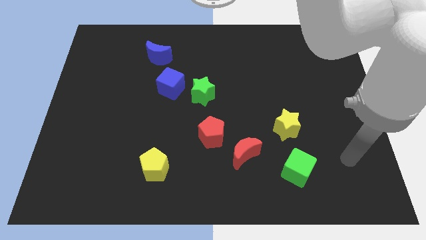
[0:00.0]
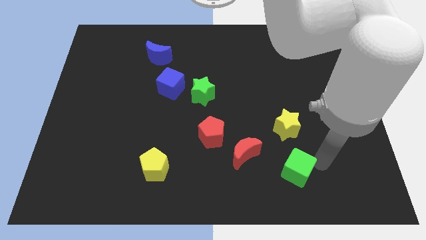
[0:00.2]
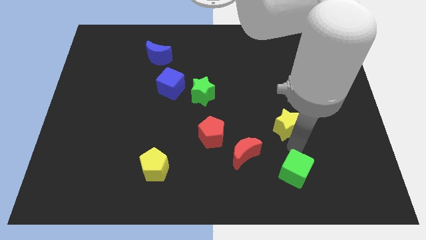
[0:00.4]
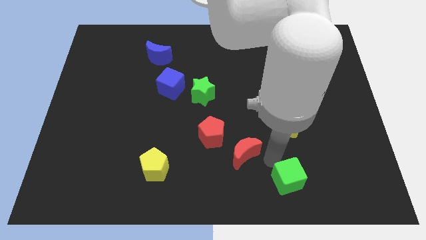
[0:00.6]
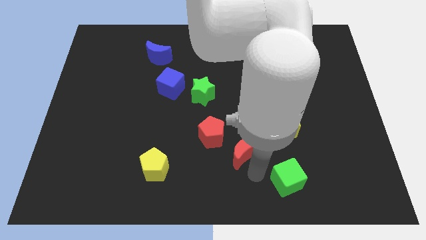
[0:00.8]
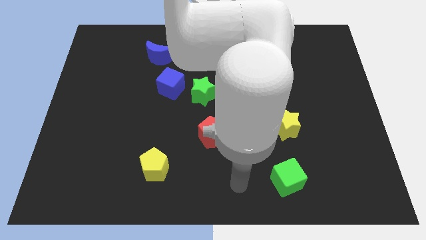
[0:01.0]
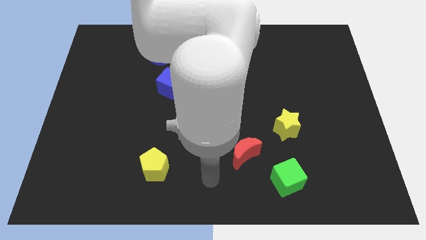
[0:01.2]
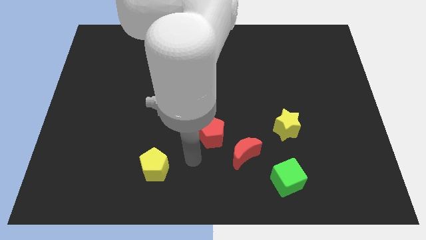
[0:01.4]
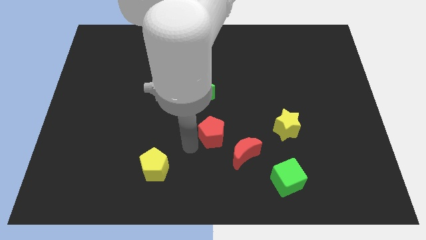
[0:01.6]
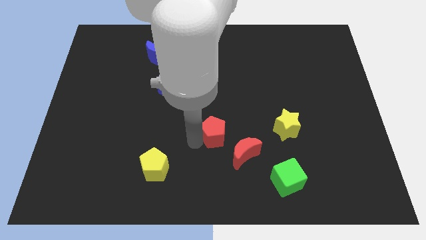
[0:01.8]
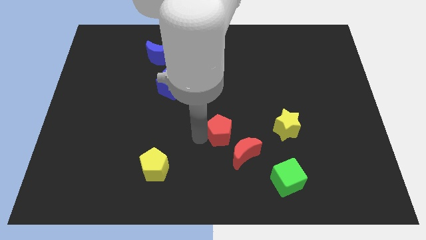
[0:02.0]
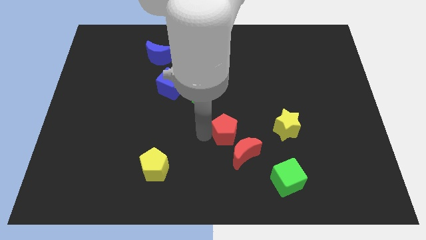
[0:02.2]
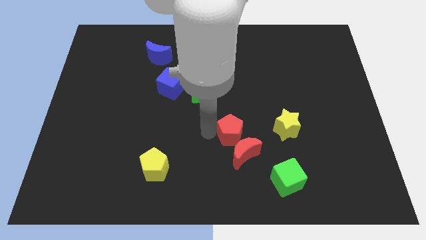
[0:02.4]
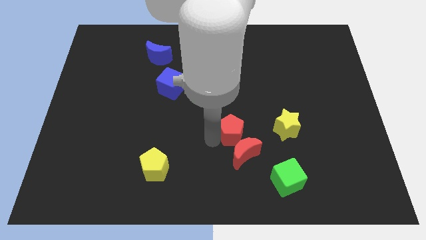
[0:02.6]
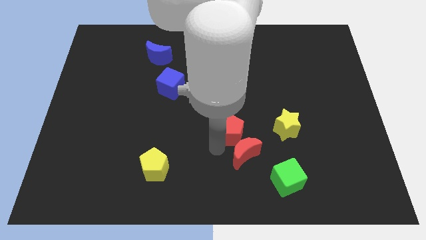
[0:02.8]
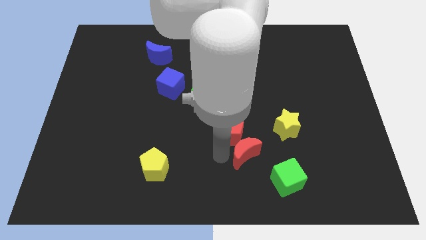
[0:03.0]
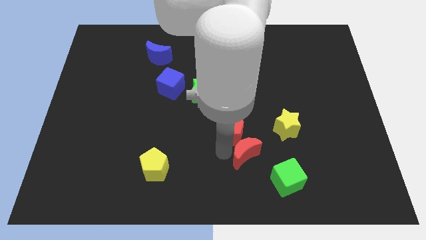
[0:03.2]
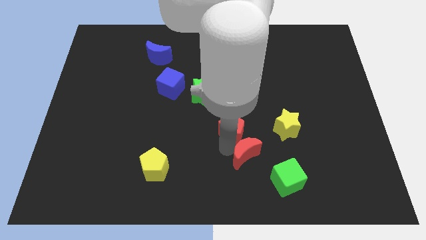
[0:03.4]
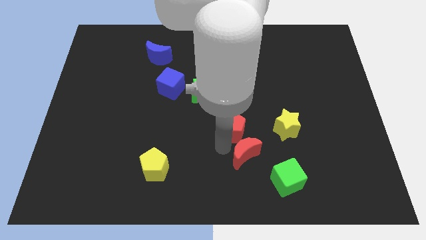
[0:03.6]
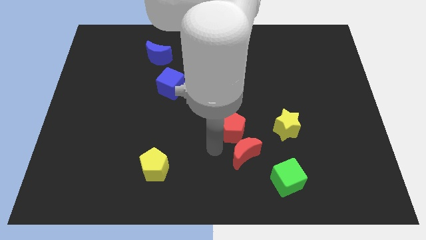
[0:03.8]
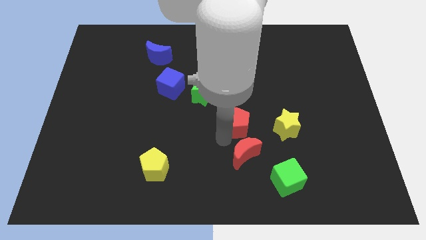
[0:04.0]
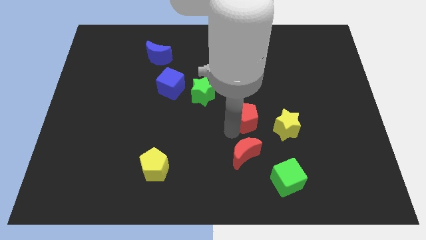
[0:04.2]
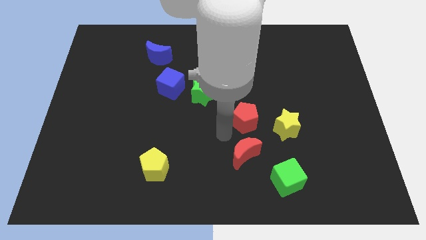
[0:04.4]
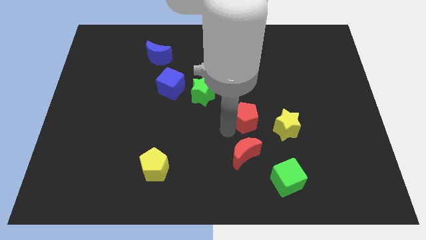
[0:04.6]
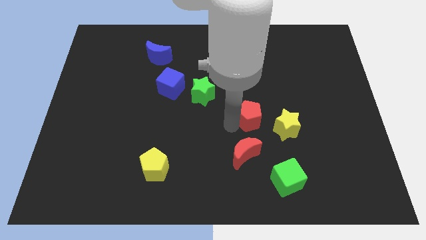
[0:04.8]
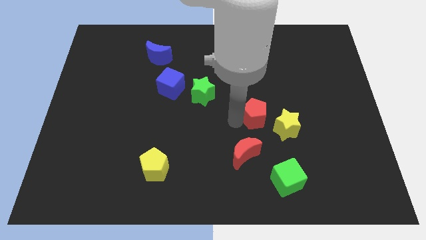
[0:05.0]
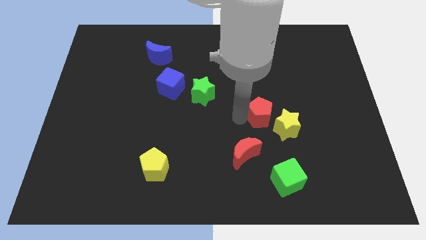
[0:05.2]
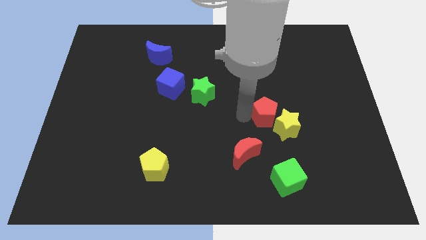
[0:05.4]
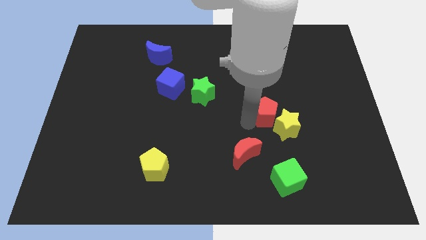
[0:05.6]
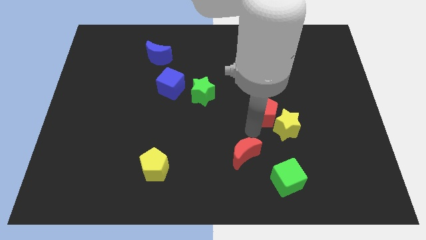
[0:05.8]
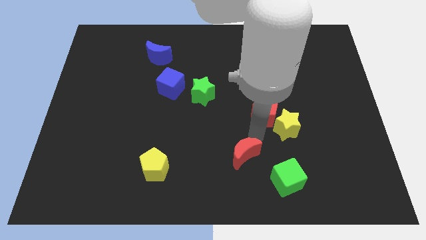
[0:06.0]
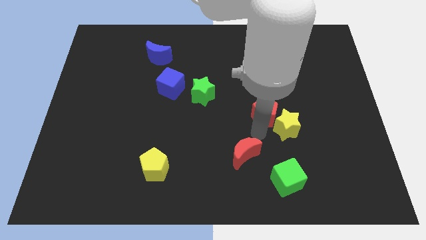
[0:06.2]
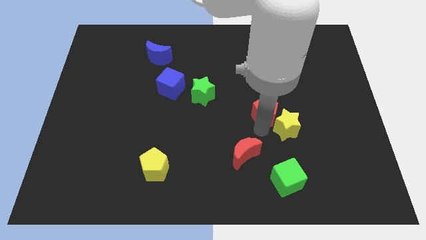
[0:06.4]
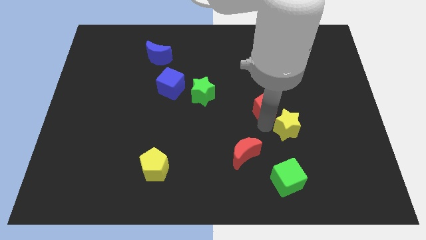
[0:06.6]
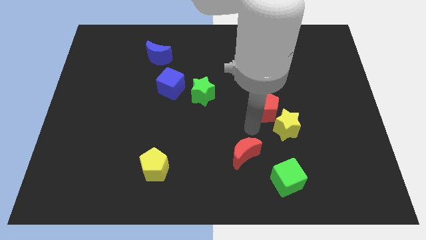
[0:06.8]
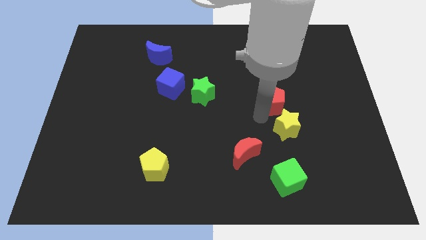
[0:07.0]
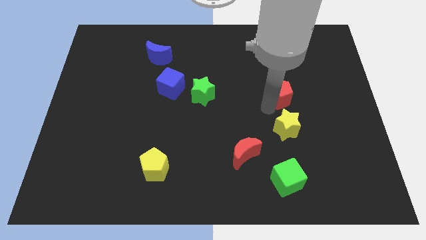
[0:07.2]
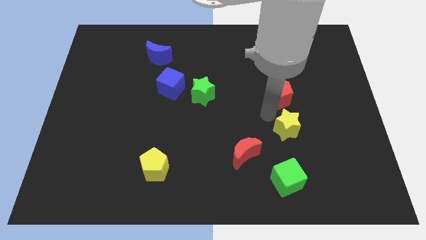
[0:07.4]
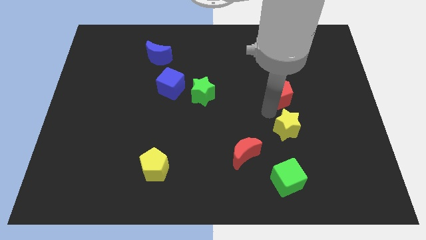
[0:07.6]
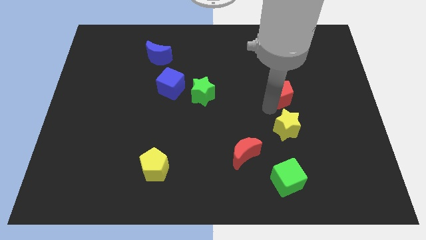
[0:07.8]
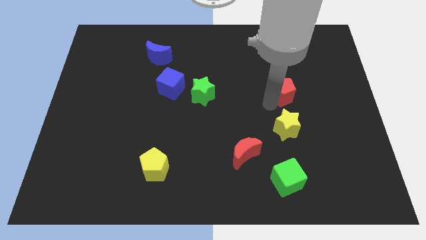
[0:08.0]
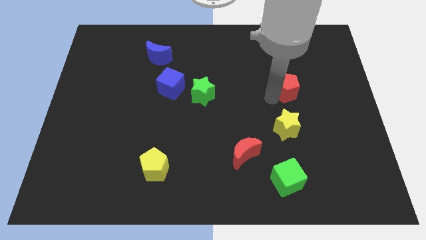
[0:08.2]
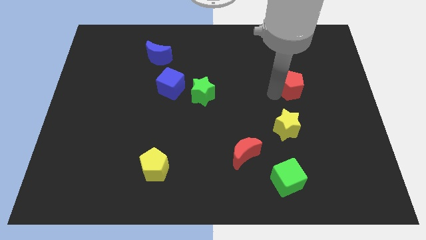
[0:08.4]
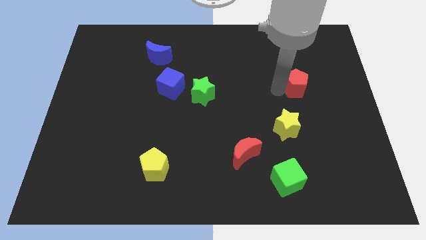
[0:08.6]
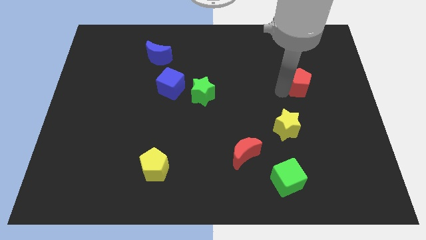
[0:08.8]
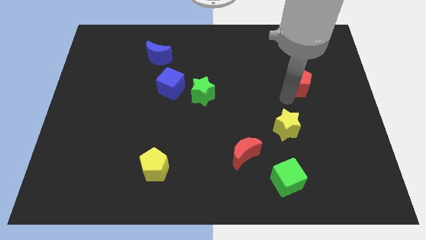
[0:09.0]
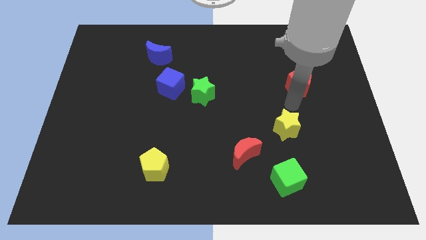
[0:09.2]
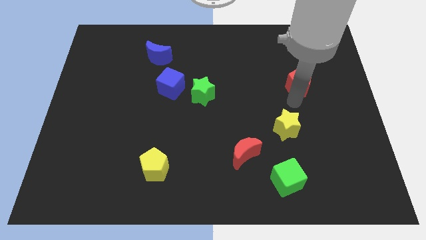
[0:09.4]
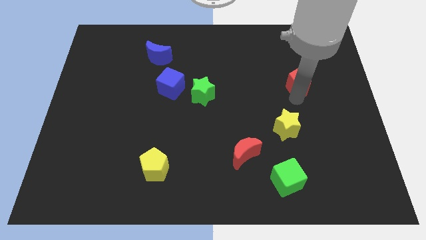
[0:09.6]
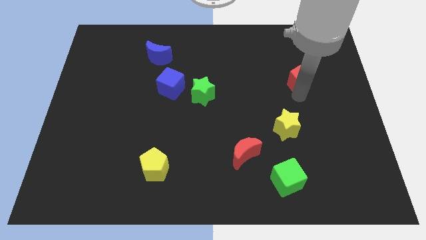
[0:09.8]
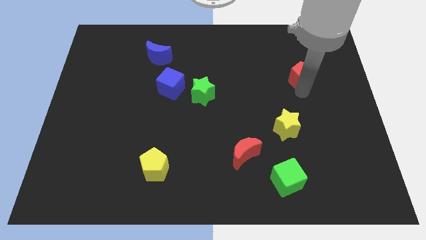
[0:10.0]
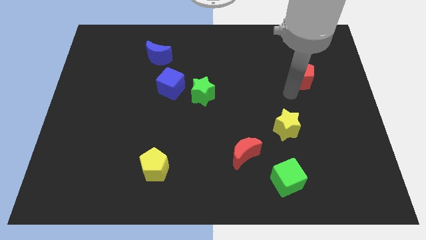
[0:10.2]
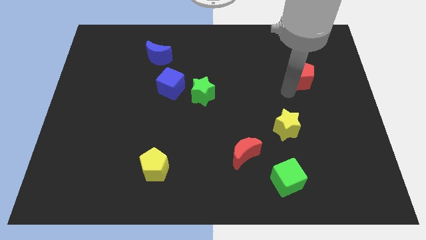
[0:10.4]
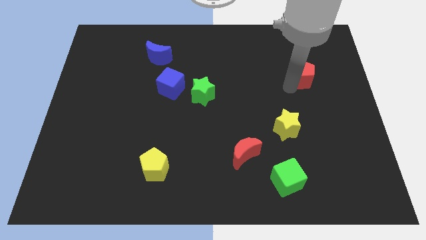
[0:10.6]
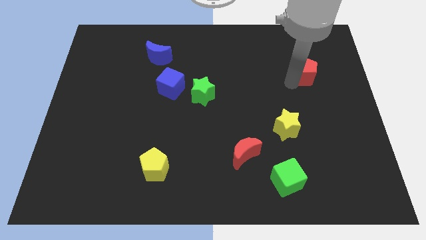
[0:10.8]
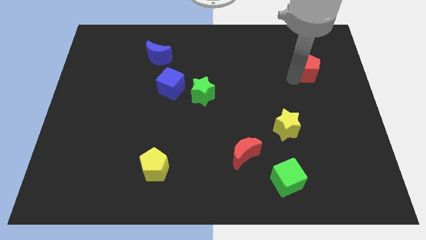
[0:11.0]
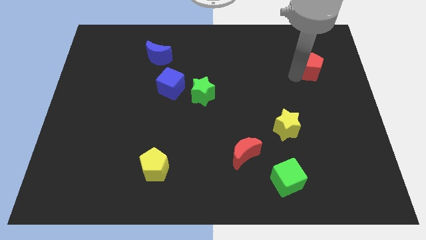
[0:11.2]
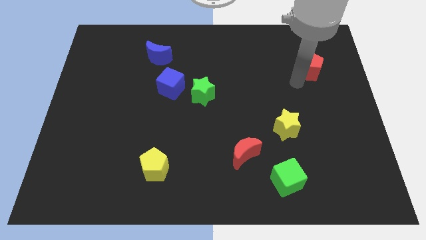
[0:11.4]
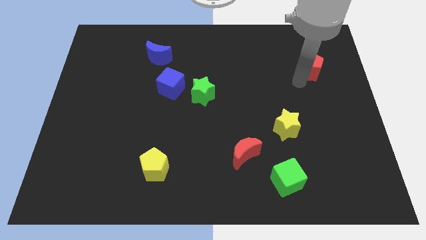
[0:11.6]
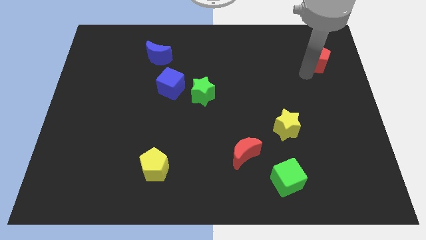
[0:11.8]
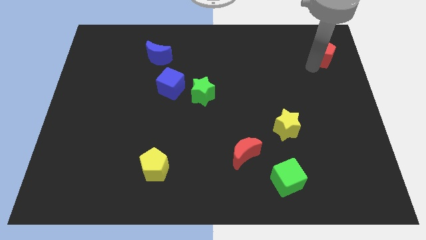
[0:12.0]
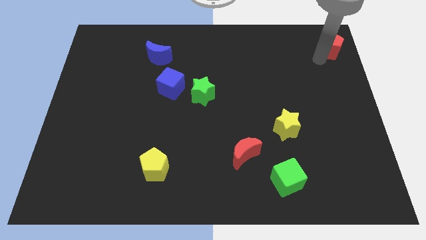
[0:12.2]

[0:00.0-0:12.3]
move the red pentagon to the top right
